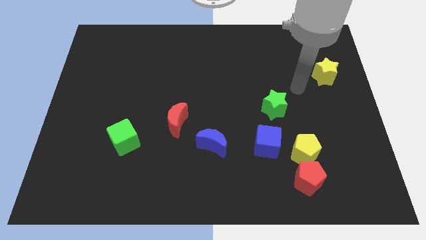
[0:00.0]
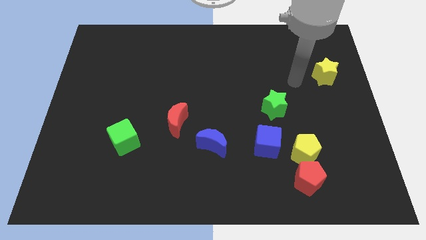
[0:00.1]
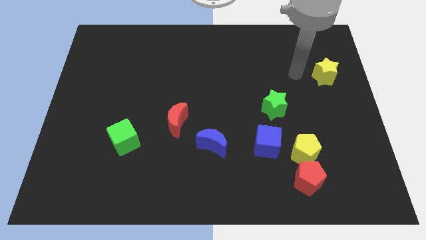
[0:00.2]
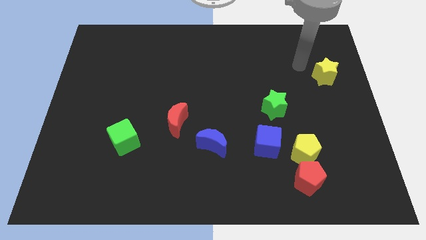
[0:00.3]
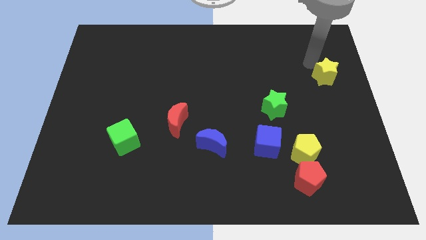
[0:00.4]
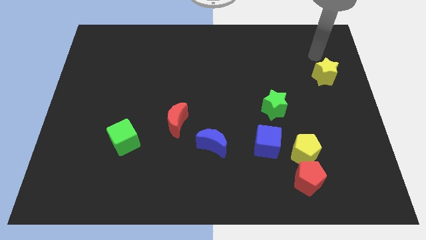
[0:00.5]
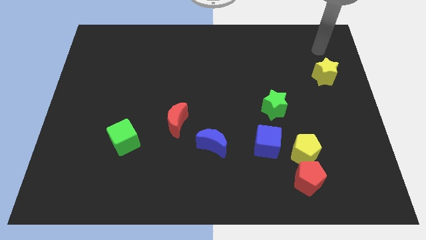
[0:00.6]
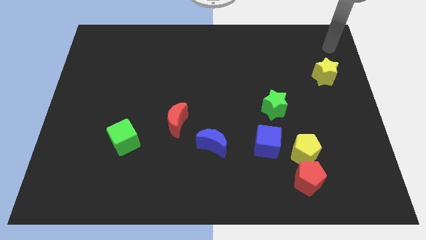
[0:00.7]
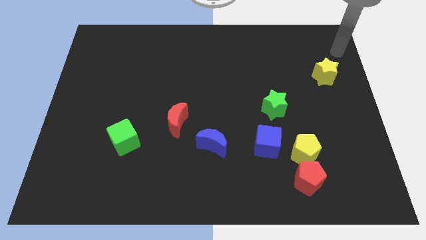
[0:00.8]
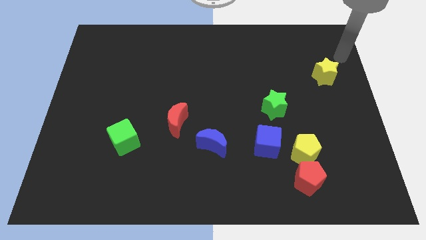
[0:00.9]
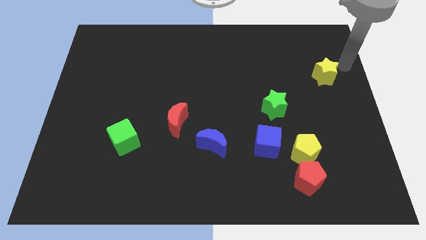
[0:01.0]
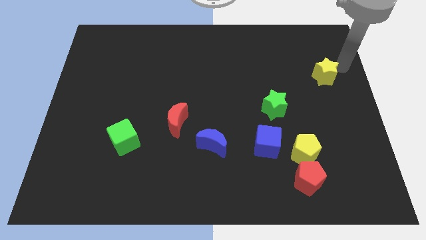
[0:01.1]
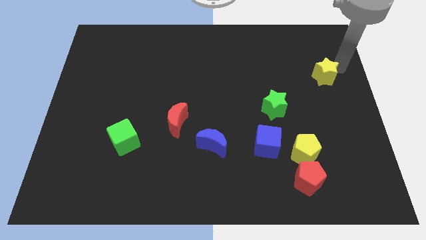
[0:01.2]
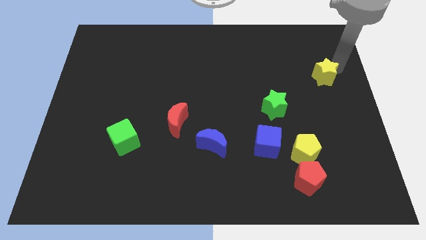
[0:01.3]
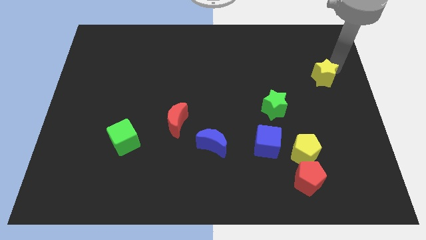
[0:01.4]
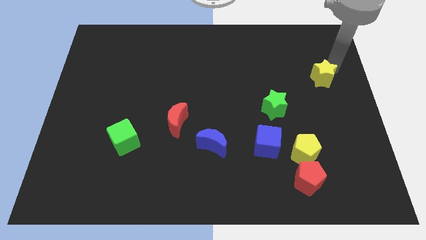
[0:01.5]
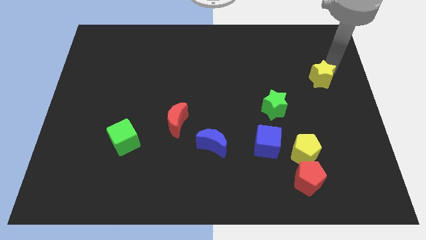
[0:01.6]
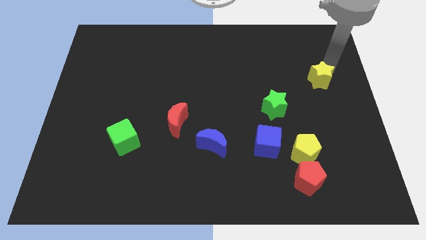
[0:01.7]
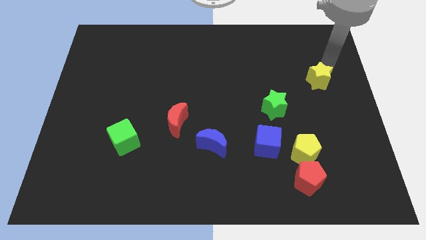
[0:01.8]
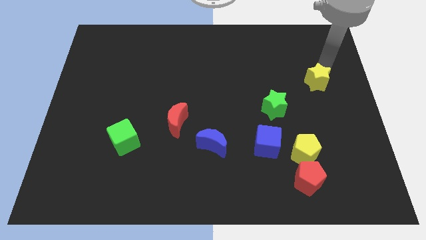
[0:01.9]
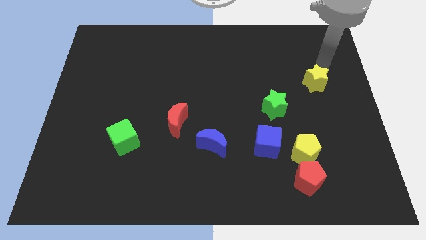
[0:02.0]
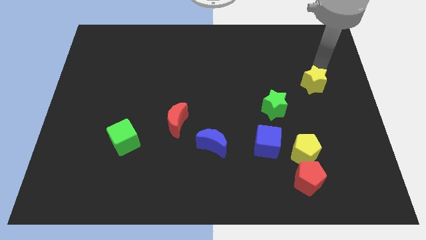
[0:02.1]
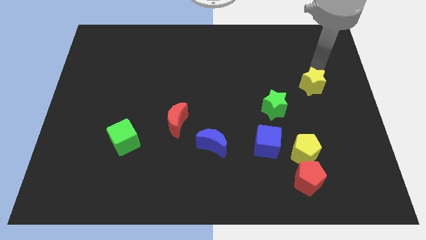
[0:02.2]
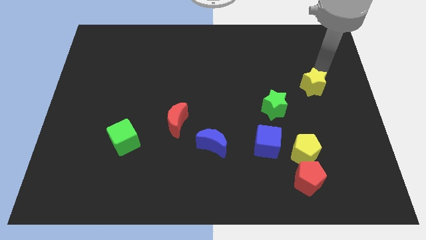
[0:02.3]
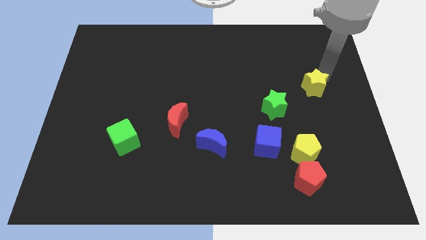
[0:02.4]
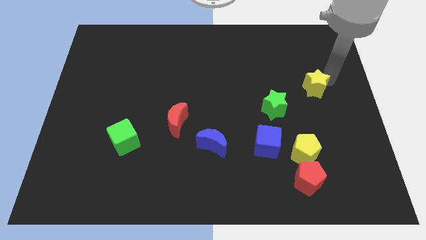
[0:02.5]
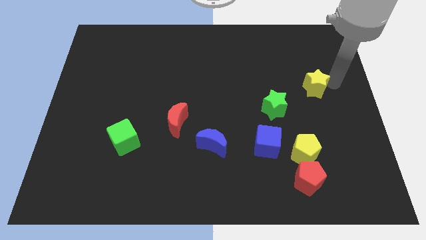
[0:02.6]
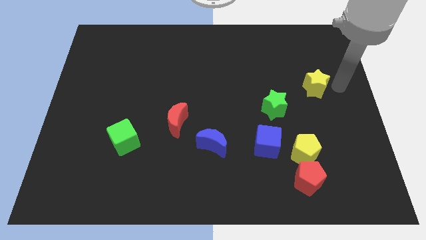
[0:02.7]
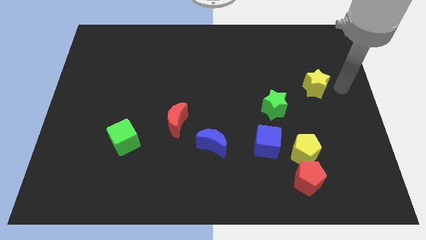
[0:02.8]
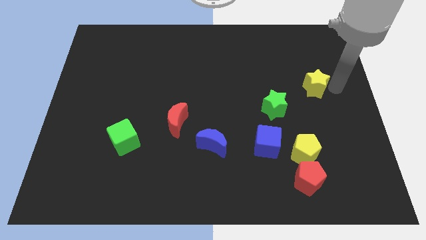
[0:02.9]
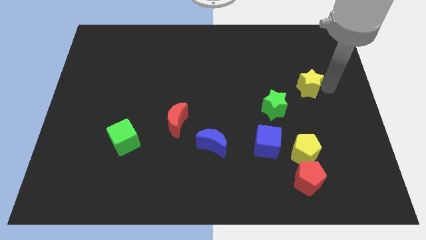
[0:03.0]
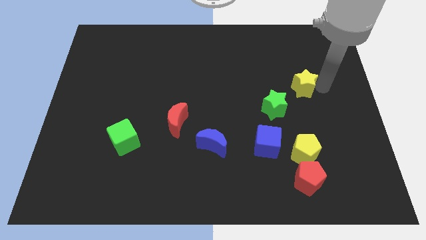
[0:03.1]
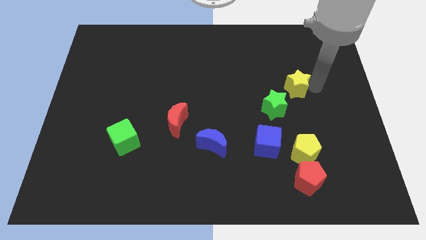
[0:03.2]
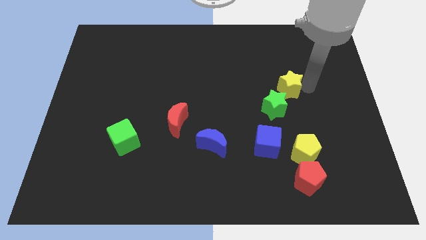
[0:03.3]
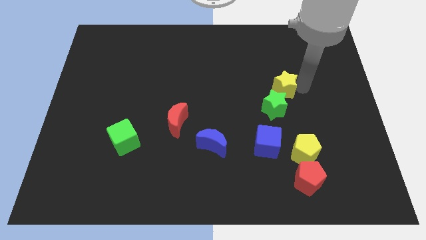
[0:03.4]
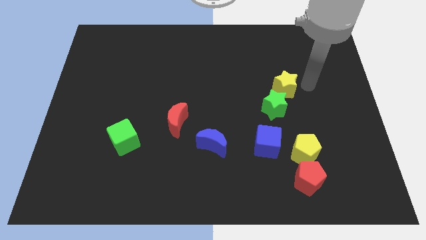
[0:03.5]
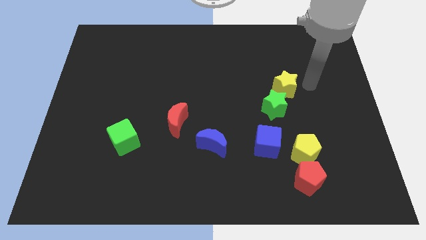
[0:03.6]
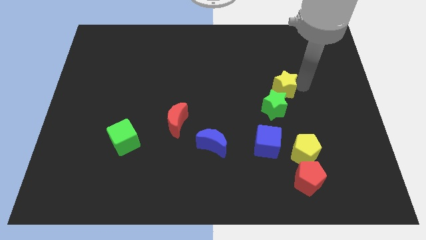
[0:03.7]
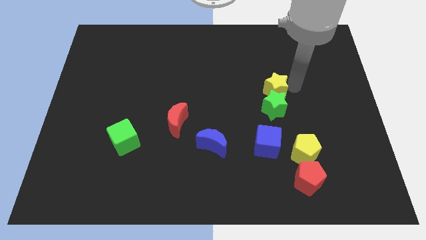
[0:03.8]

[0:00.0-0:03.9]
slide the yellow star to the top left of the green star

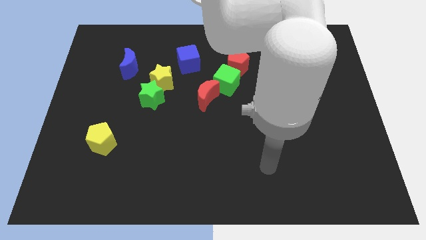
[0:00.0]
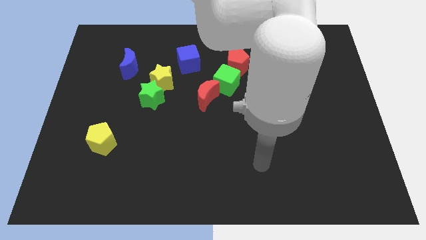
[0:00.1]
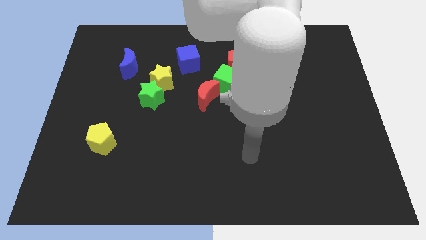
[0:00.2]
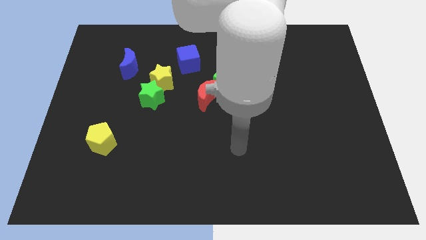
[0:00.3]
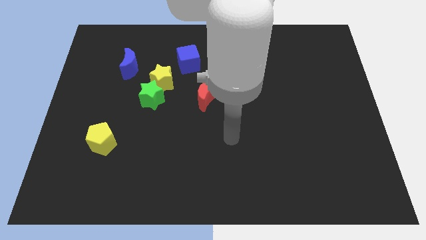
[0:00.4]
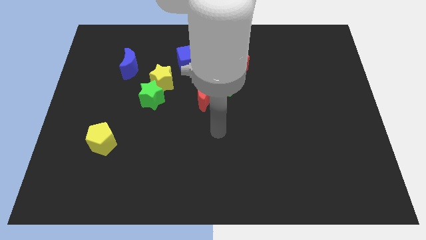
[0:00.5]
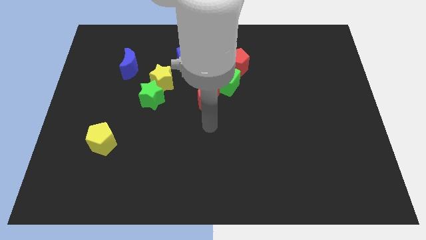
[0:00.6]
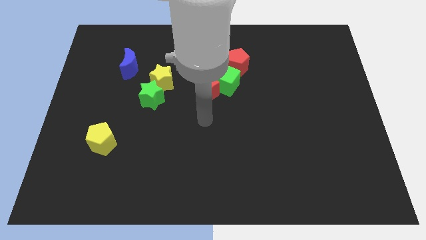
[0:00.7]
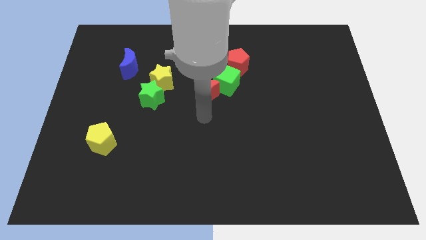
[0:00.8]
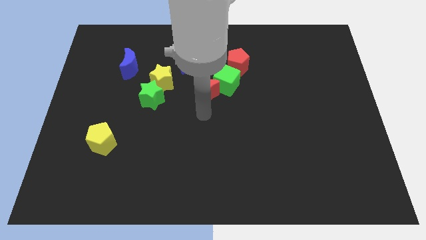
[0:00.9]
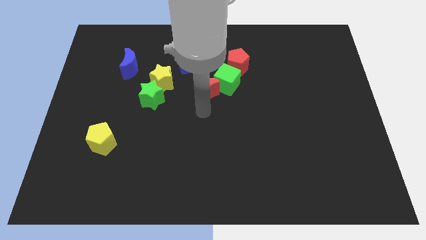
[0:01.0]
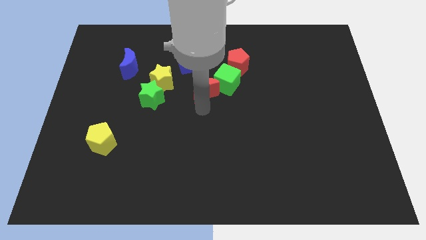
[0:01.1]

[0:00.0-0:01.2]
slide the red moon to the bottom right of the blue cube

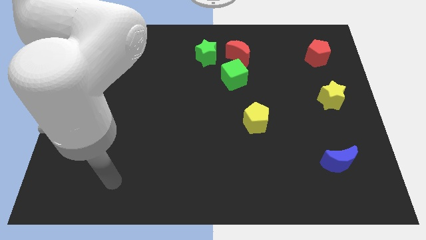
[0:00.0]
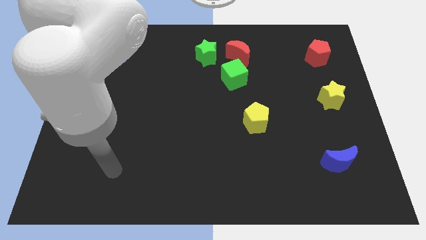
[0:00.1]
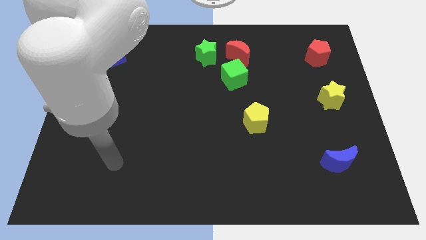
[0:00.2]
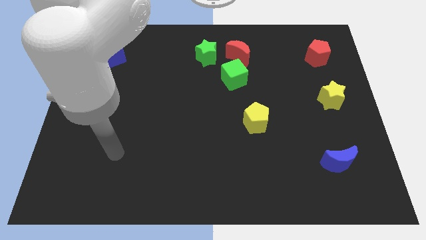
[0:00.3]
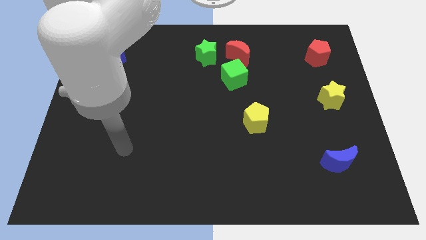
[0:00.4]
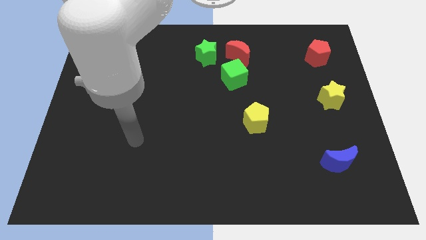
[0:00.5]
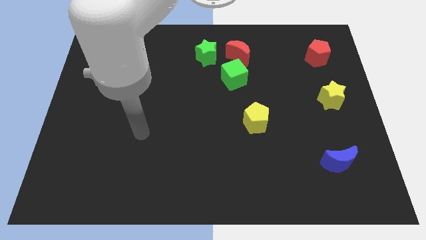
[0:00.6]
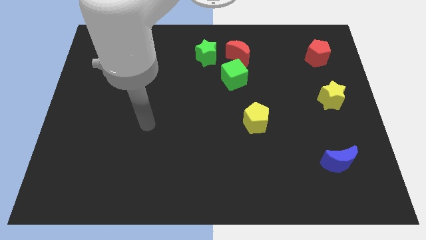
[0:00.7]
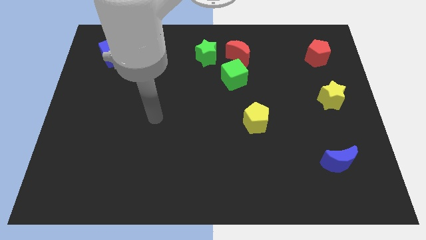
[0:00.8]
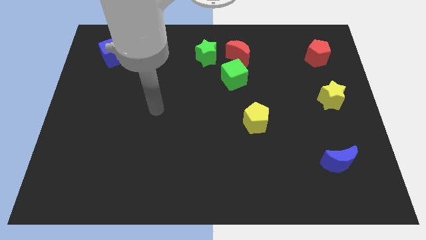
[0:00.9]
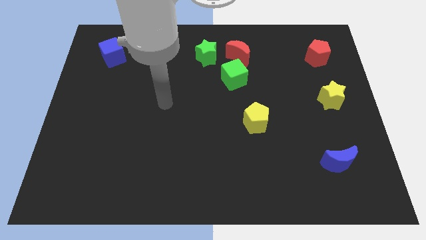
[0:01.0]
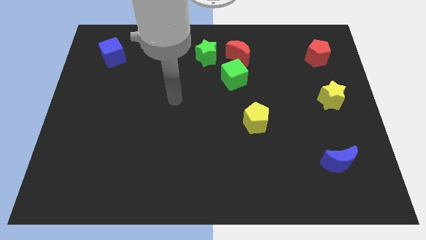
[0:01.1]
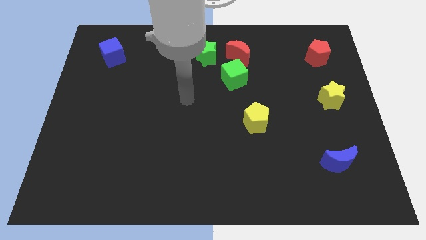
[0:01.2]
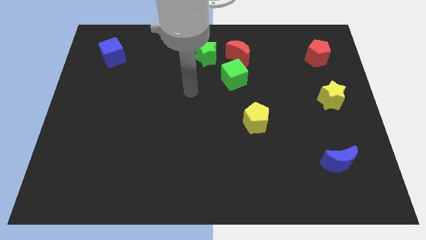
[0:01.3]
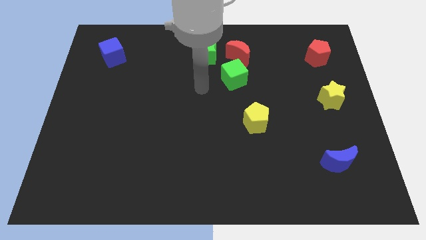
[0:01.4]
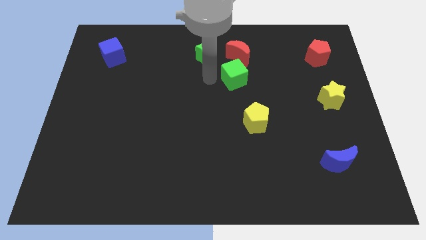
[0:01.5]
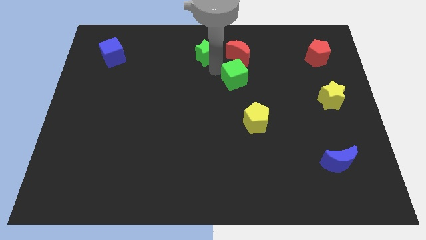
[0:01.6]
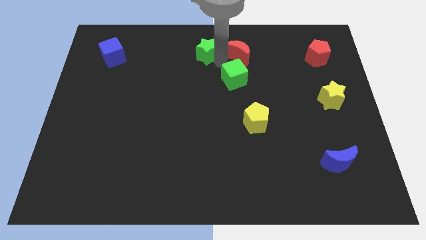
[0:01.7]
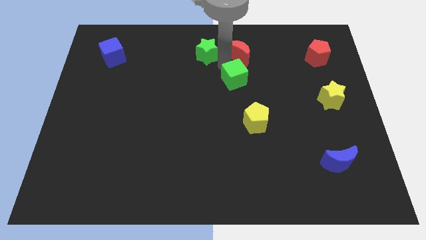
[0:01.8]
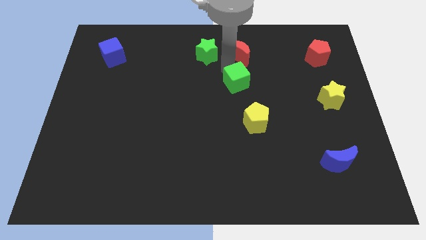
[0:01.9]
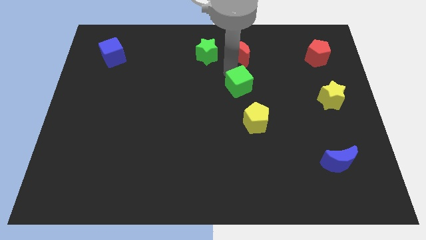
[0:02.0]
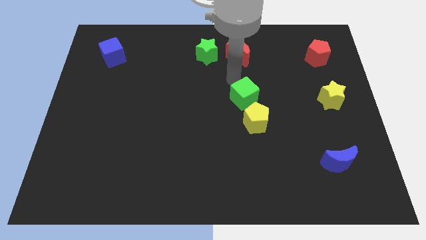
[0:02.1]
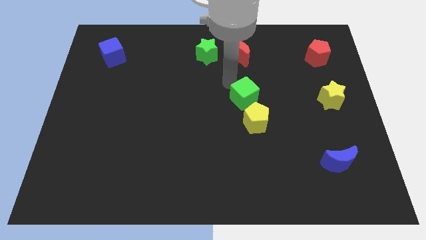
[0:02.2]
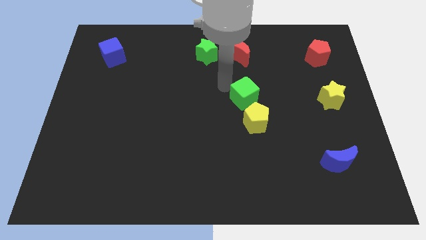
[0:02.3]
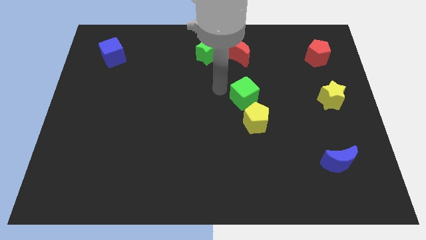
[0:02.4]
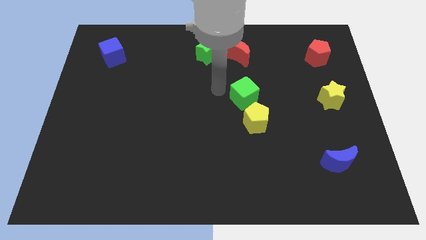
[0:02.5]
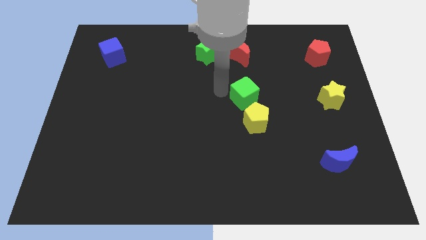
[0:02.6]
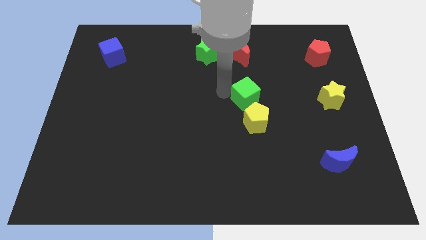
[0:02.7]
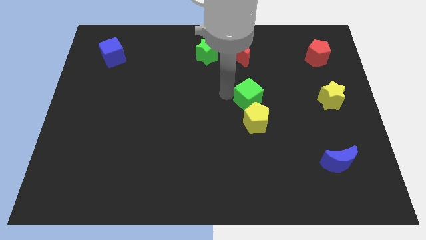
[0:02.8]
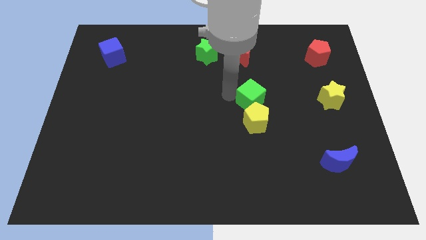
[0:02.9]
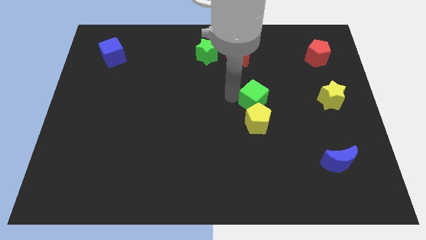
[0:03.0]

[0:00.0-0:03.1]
slide the green cube to the top right of the yellow pentagon

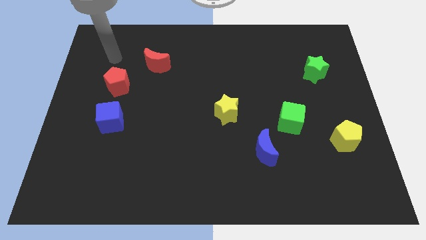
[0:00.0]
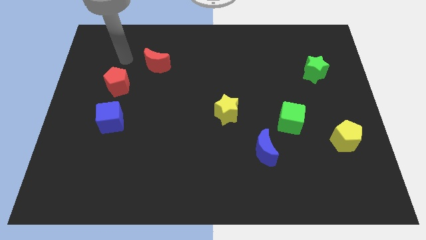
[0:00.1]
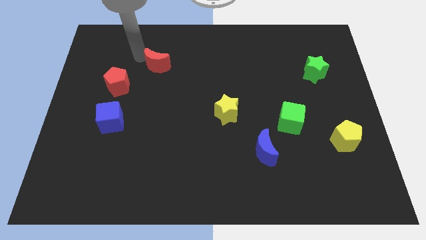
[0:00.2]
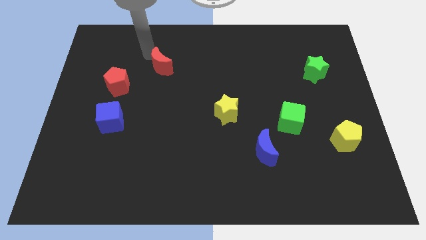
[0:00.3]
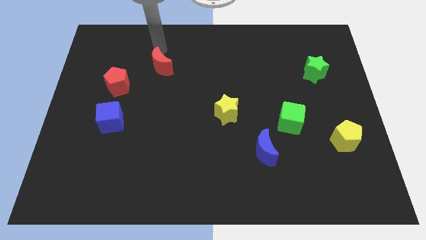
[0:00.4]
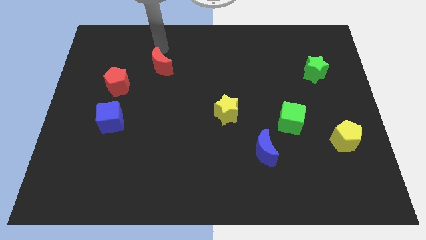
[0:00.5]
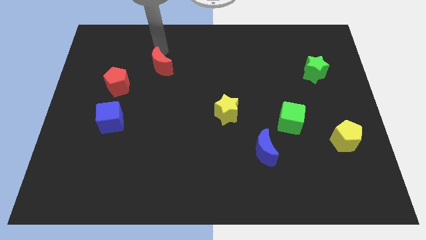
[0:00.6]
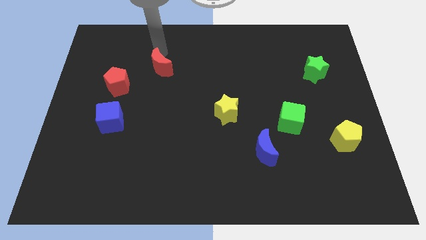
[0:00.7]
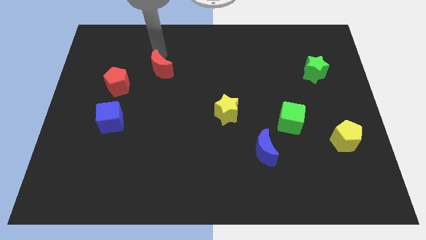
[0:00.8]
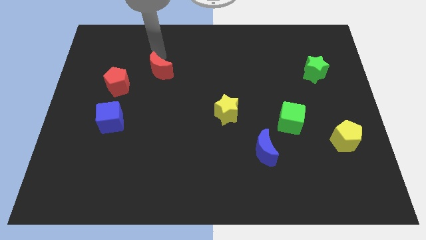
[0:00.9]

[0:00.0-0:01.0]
put the red moon right of the red pentagon
